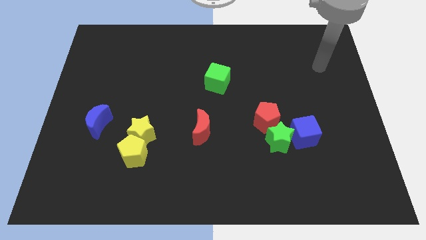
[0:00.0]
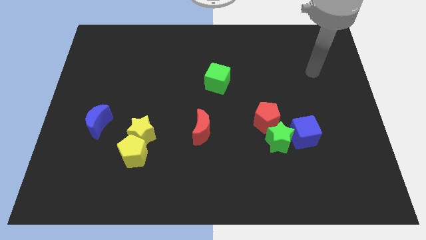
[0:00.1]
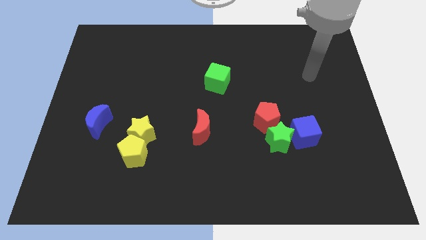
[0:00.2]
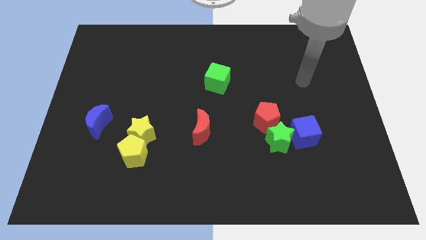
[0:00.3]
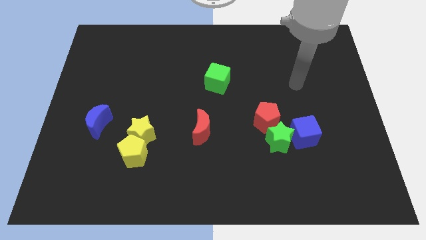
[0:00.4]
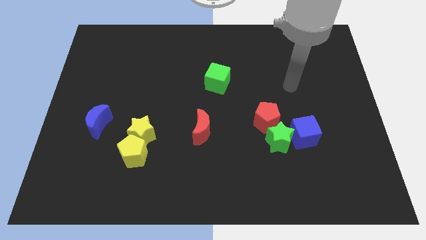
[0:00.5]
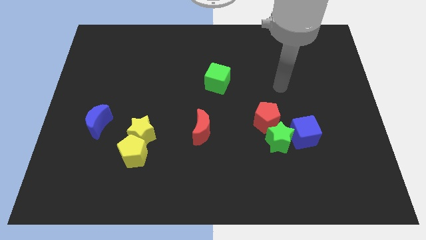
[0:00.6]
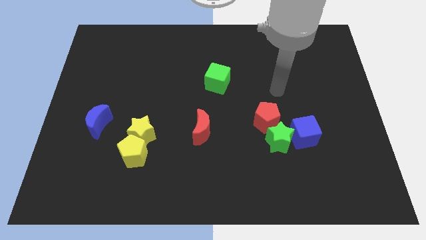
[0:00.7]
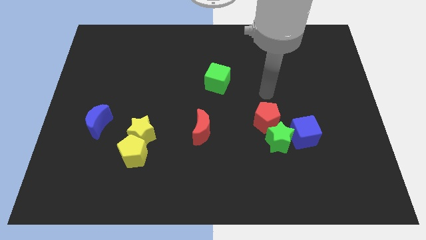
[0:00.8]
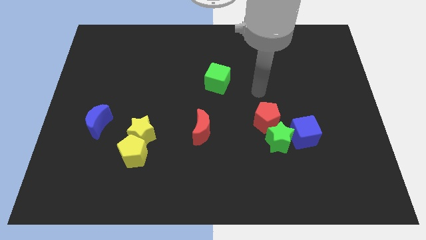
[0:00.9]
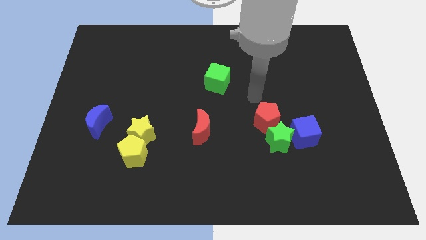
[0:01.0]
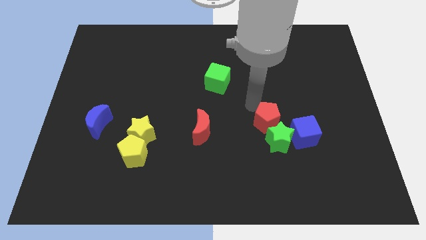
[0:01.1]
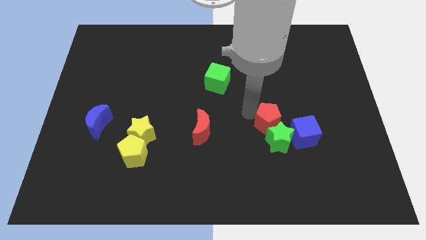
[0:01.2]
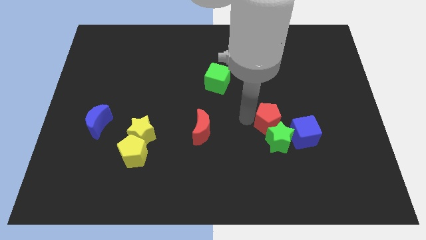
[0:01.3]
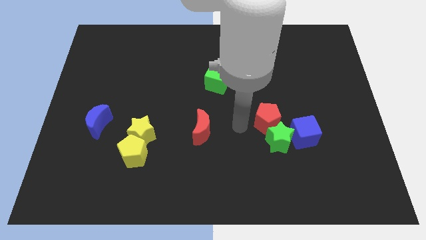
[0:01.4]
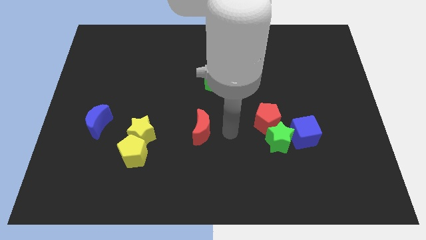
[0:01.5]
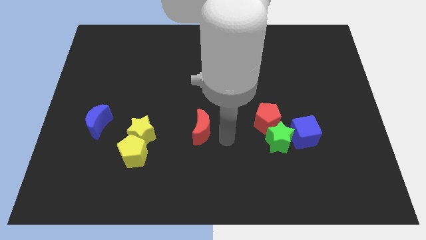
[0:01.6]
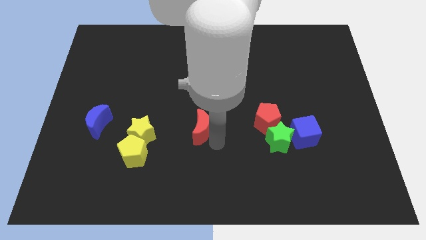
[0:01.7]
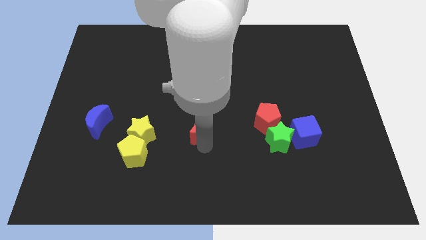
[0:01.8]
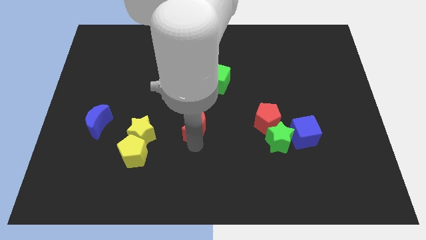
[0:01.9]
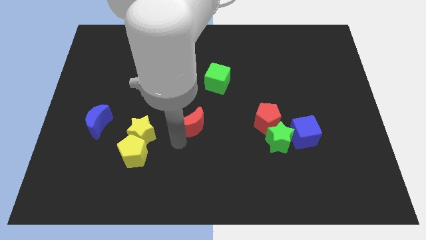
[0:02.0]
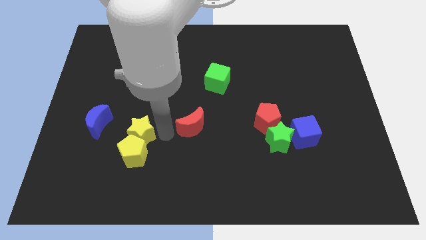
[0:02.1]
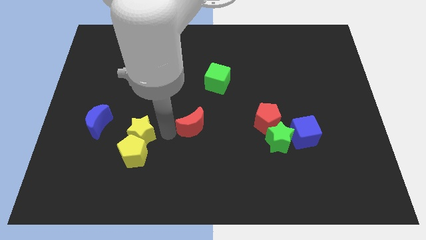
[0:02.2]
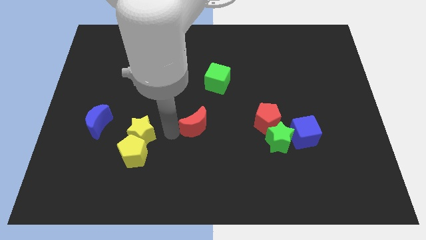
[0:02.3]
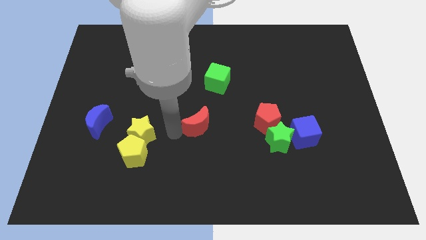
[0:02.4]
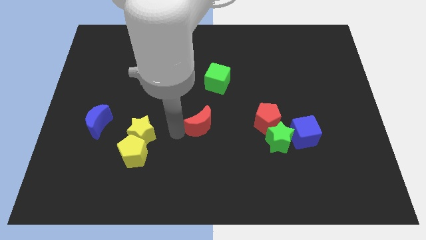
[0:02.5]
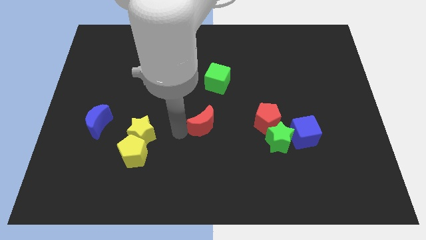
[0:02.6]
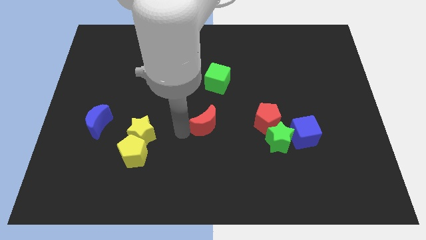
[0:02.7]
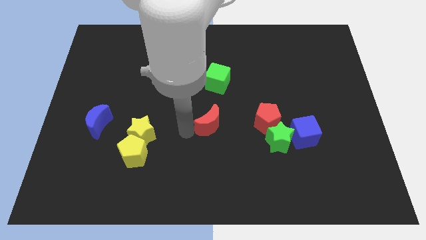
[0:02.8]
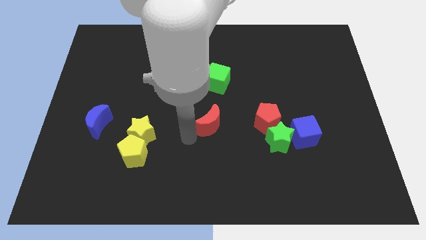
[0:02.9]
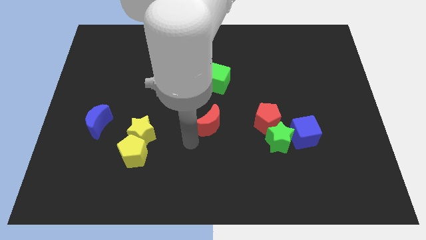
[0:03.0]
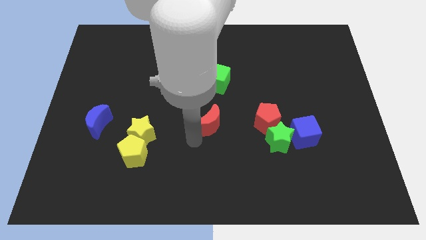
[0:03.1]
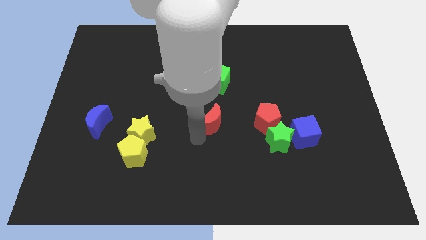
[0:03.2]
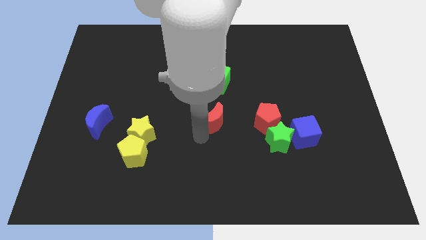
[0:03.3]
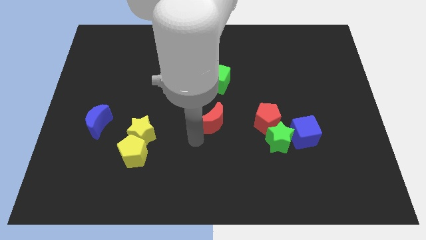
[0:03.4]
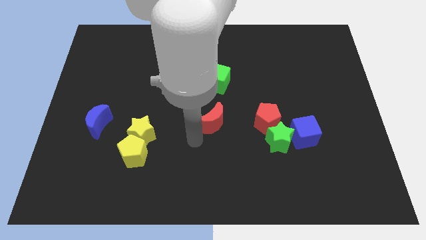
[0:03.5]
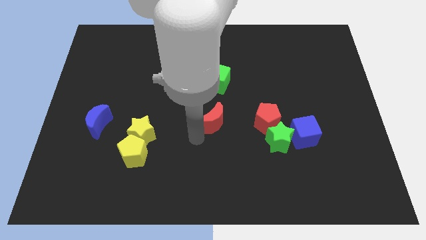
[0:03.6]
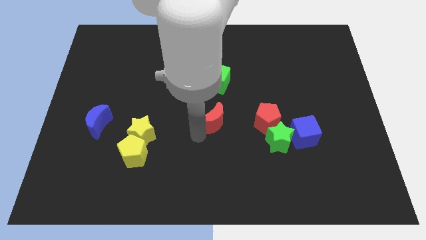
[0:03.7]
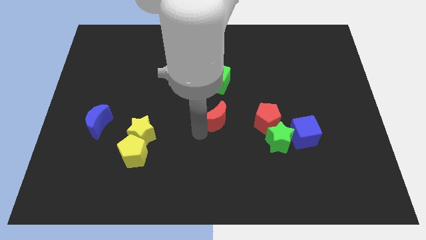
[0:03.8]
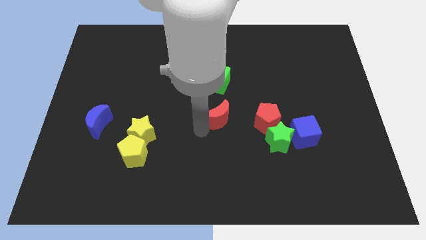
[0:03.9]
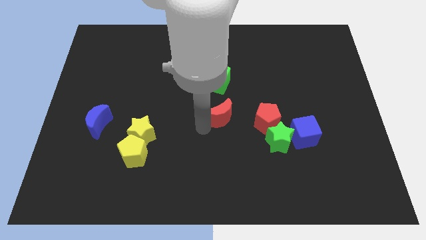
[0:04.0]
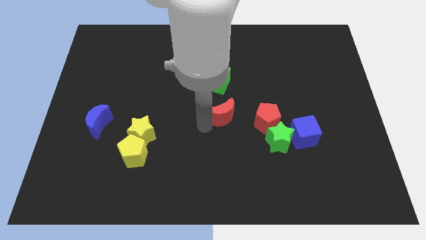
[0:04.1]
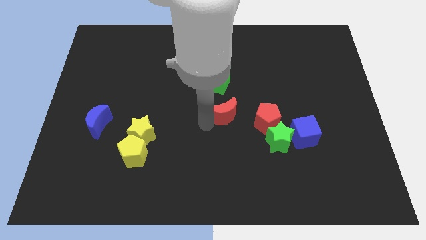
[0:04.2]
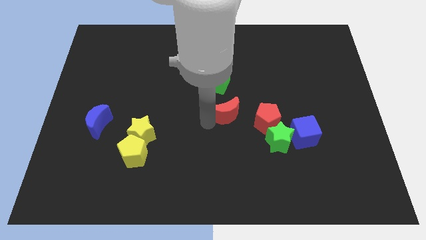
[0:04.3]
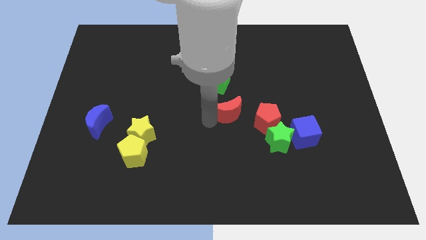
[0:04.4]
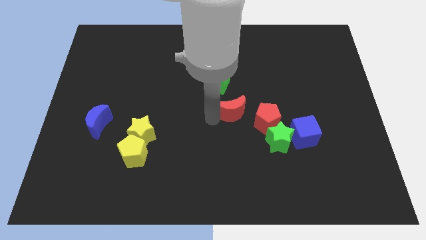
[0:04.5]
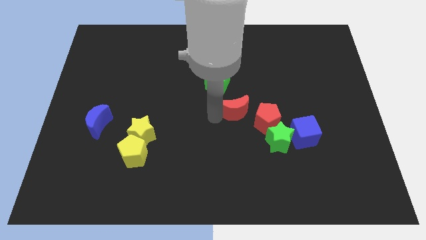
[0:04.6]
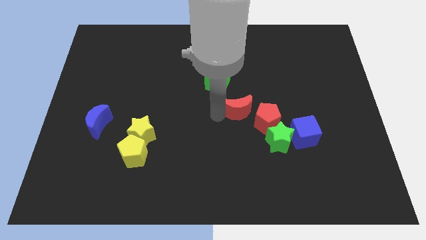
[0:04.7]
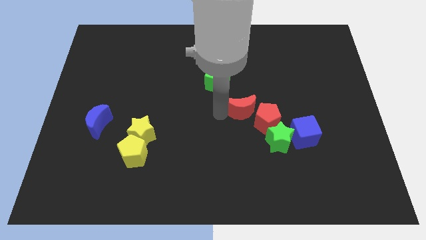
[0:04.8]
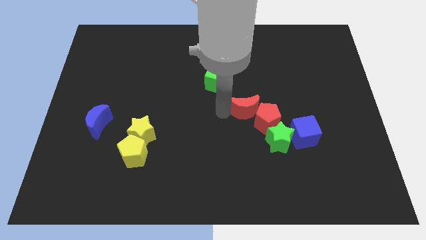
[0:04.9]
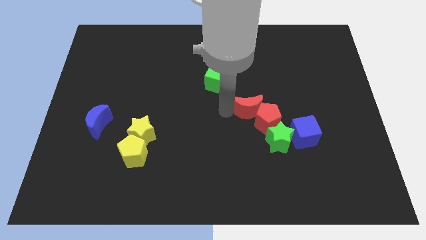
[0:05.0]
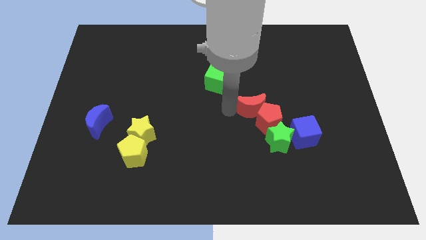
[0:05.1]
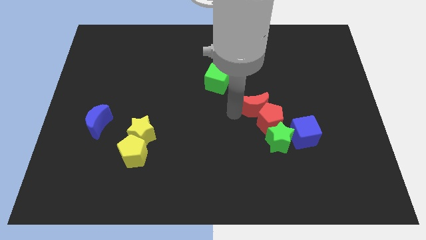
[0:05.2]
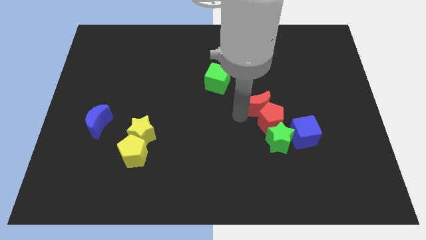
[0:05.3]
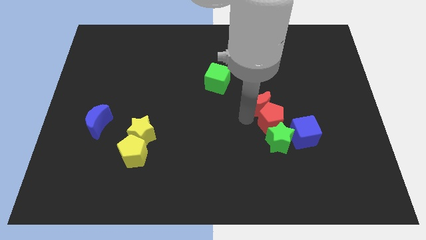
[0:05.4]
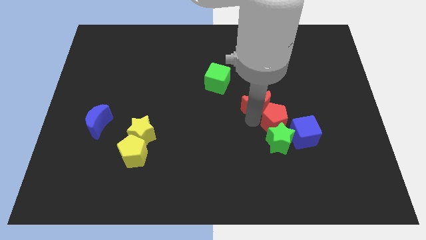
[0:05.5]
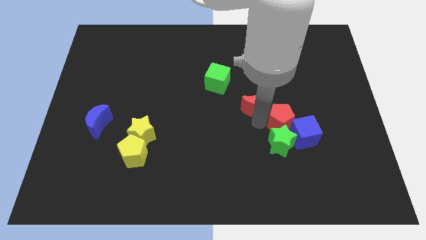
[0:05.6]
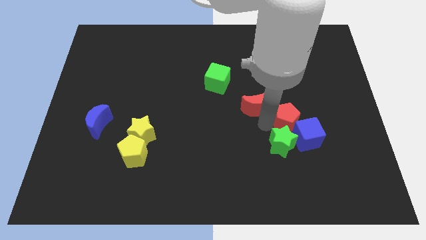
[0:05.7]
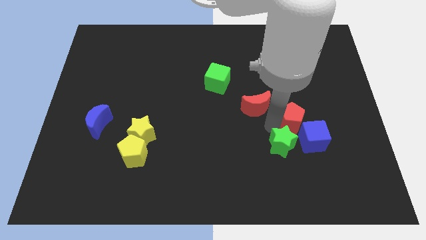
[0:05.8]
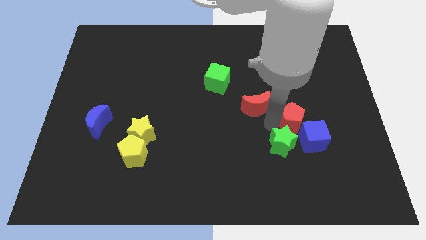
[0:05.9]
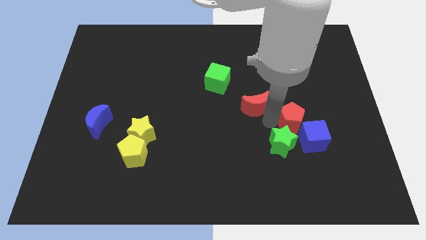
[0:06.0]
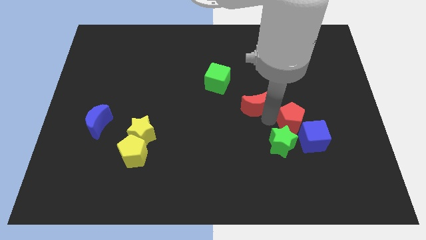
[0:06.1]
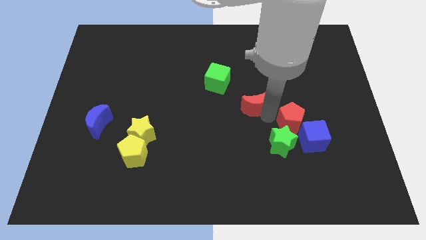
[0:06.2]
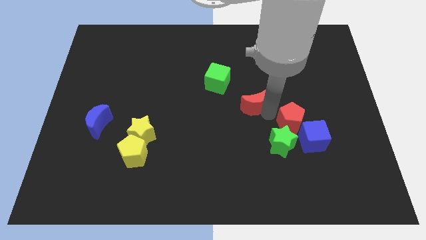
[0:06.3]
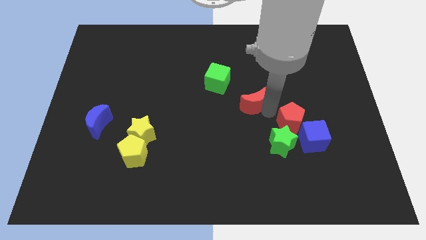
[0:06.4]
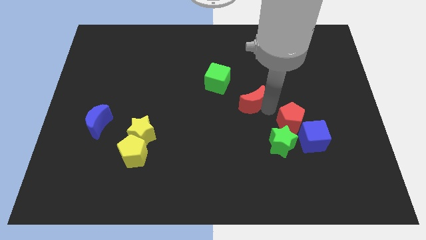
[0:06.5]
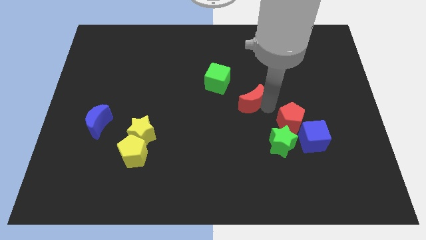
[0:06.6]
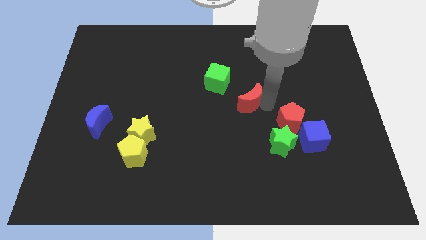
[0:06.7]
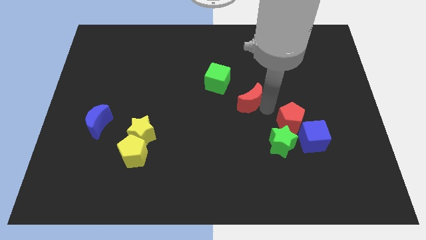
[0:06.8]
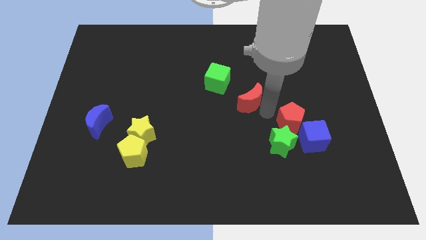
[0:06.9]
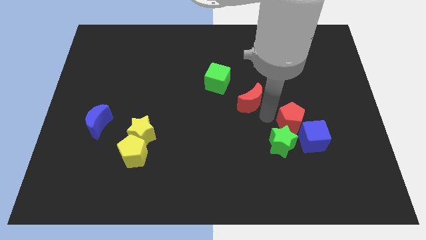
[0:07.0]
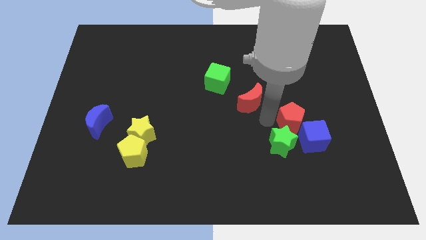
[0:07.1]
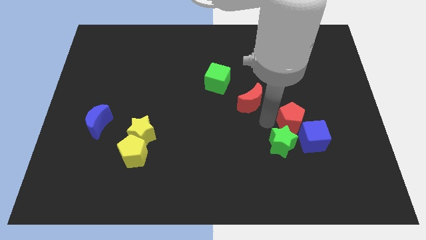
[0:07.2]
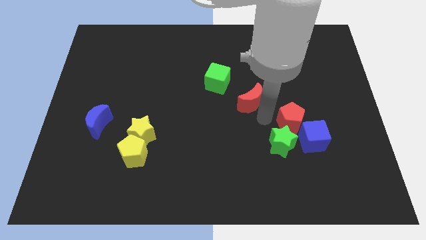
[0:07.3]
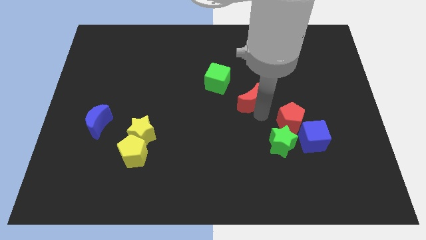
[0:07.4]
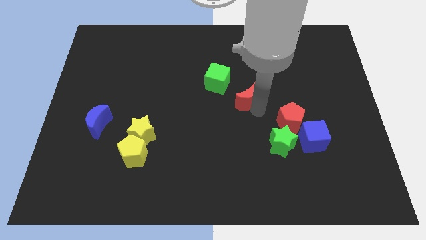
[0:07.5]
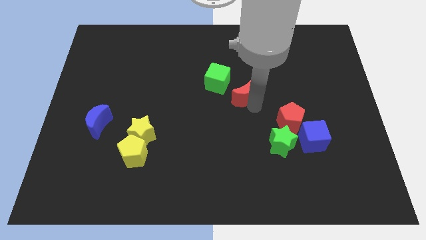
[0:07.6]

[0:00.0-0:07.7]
put the red moon just right of the green cube
